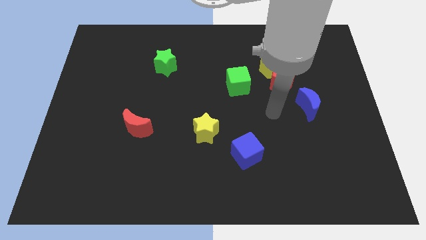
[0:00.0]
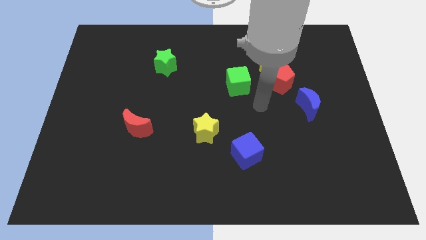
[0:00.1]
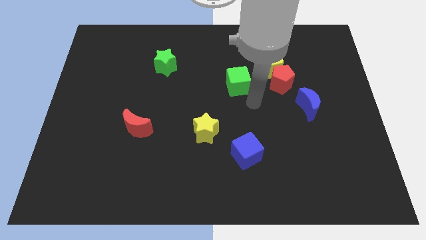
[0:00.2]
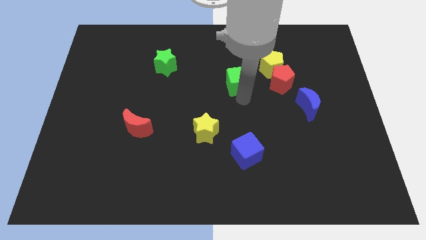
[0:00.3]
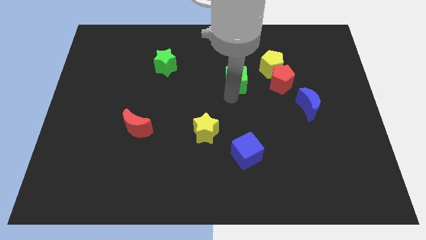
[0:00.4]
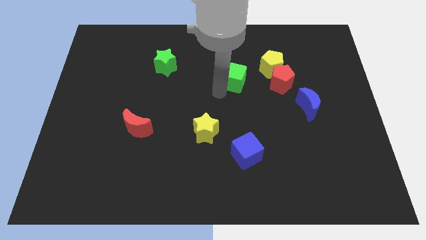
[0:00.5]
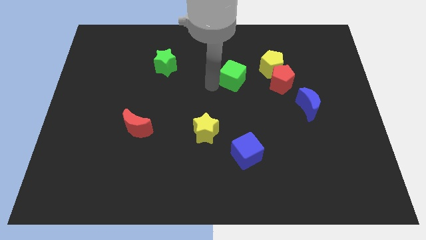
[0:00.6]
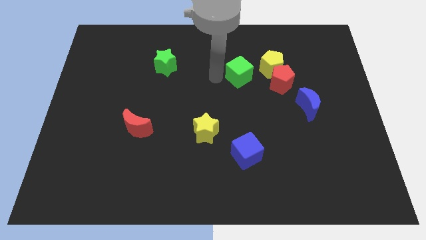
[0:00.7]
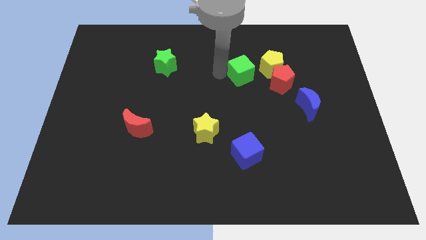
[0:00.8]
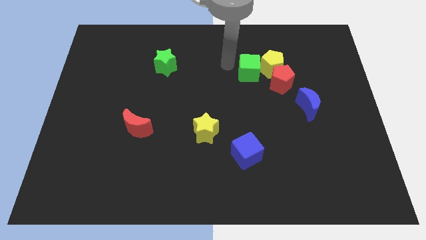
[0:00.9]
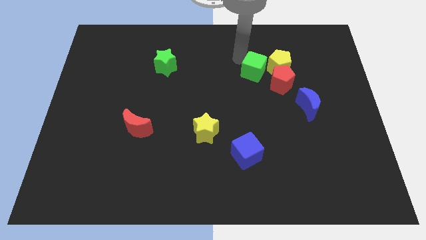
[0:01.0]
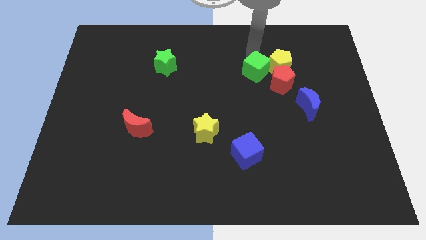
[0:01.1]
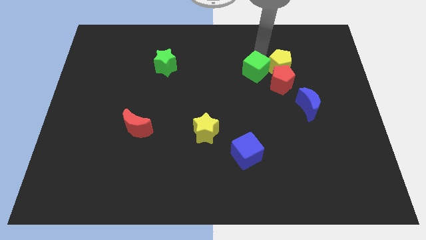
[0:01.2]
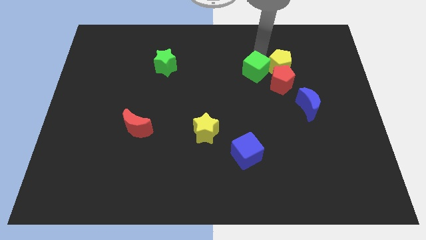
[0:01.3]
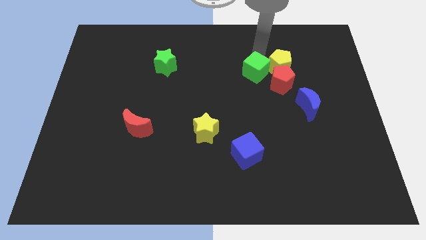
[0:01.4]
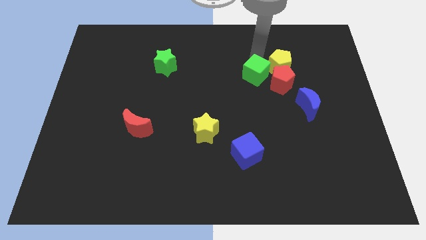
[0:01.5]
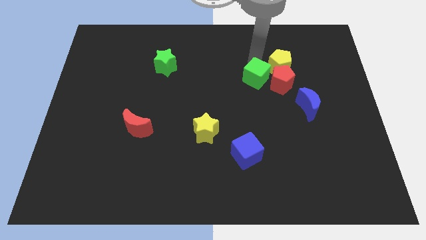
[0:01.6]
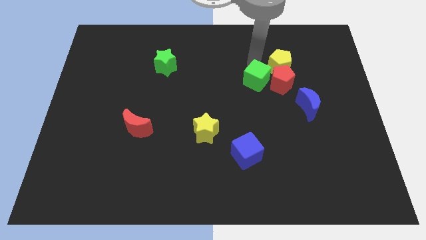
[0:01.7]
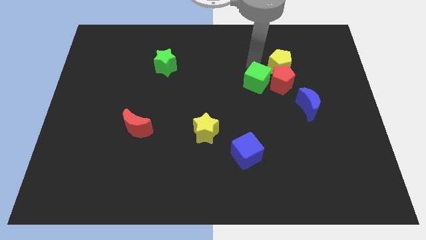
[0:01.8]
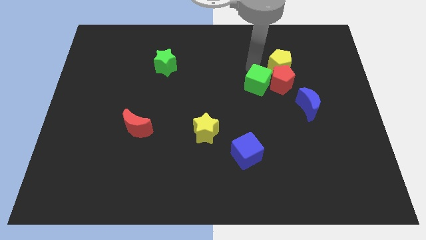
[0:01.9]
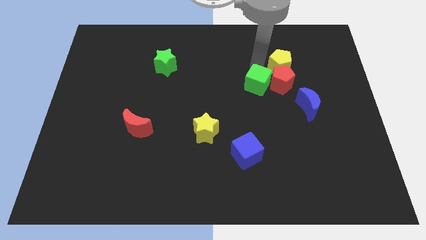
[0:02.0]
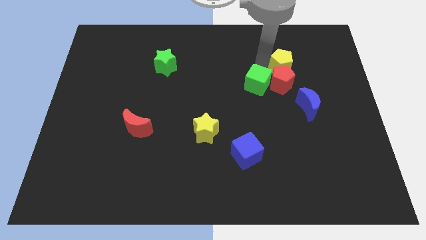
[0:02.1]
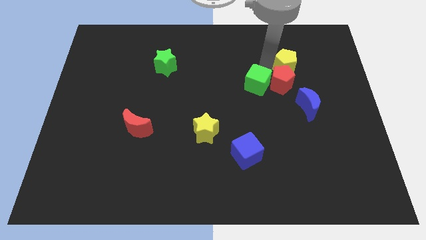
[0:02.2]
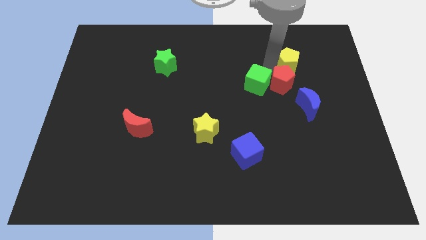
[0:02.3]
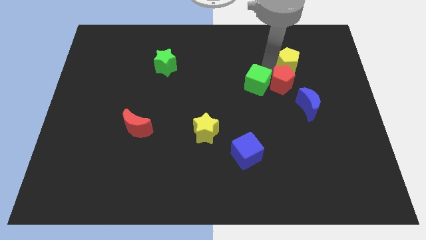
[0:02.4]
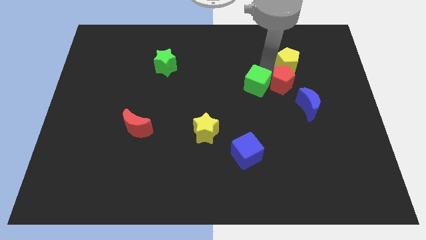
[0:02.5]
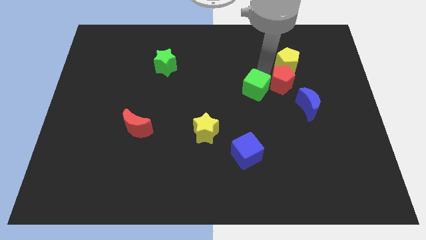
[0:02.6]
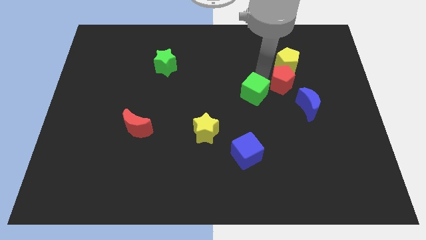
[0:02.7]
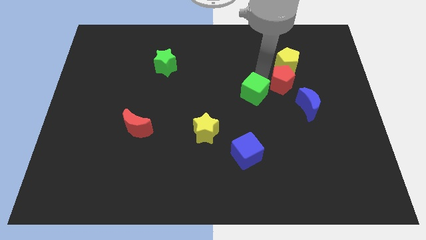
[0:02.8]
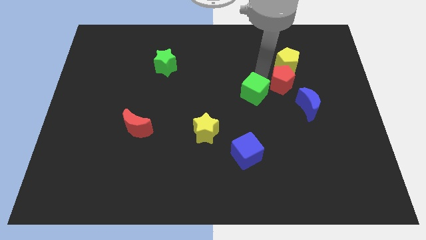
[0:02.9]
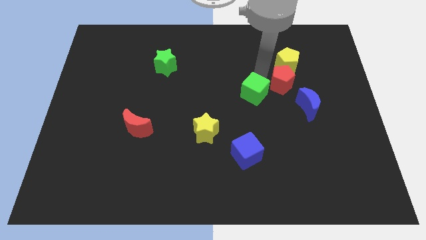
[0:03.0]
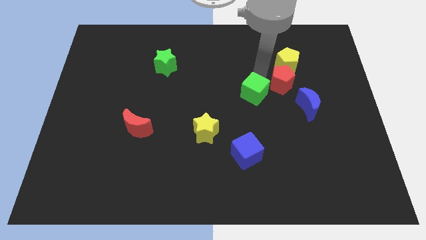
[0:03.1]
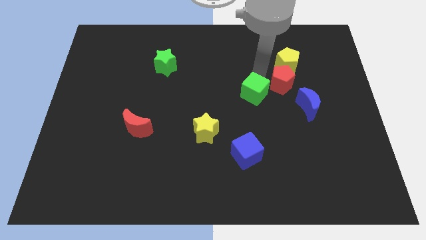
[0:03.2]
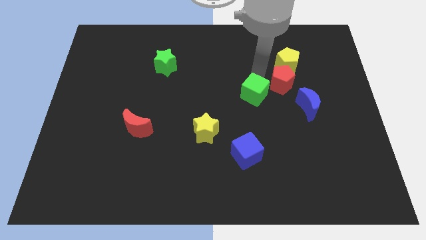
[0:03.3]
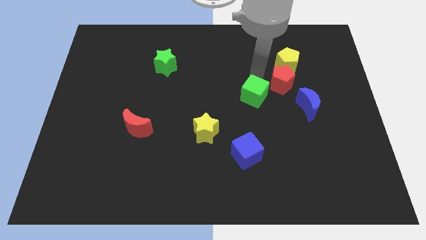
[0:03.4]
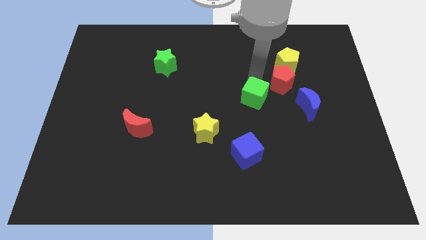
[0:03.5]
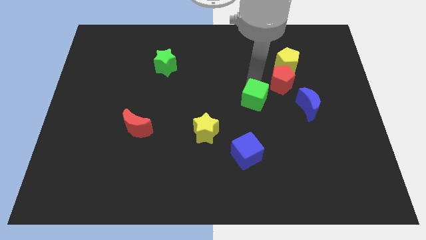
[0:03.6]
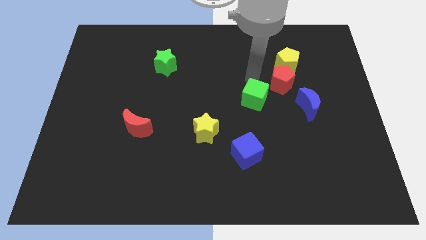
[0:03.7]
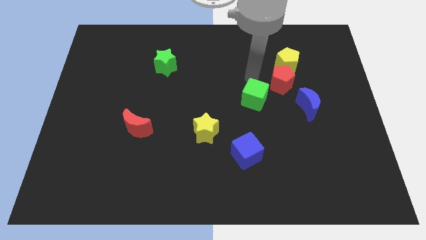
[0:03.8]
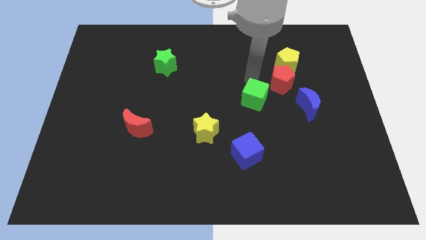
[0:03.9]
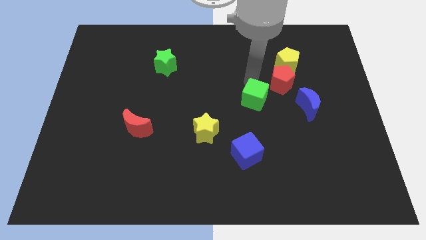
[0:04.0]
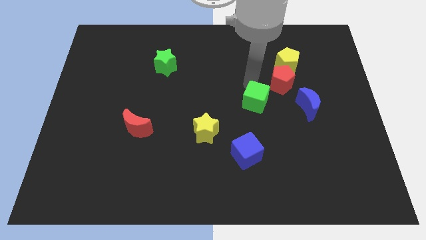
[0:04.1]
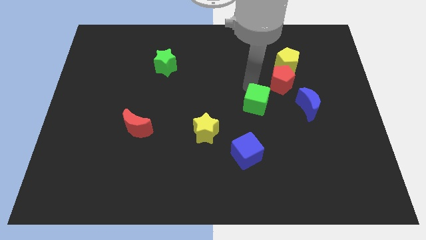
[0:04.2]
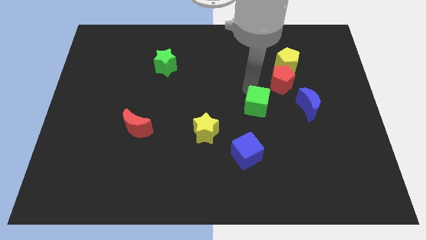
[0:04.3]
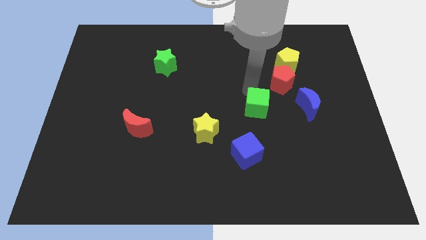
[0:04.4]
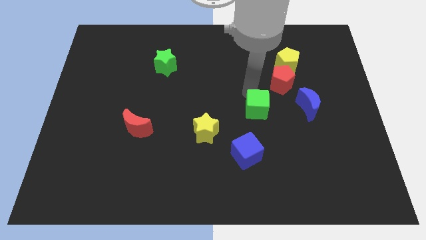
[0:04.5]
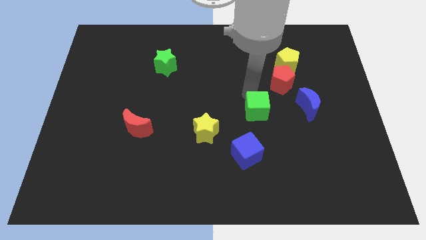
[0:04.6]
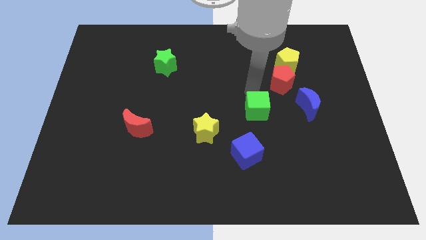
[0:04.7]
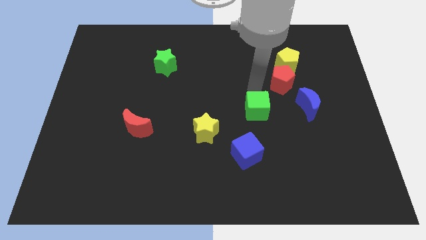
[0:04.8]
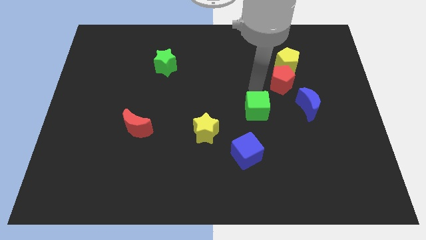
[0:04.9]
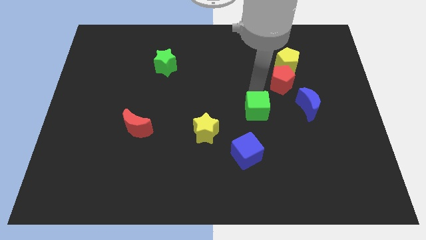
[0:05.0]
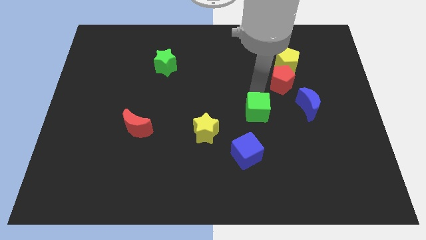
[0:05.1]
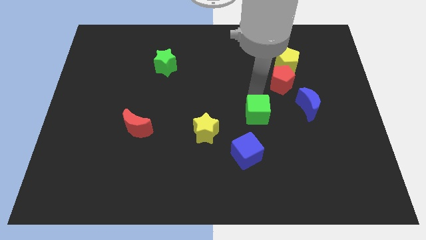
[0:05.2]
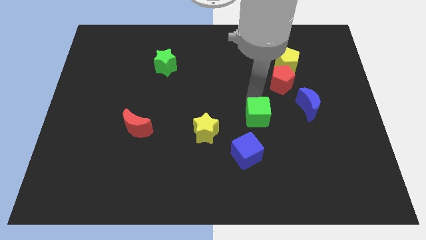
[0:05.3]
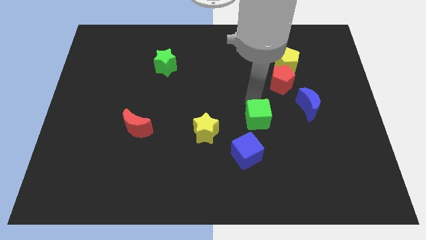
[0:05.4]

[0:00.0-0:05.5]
move the green cube diagonally up and to the right of the blue cube

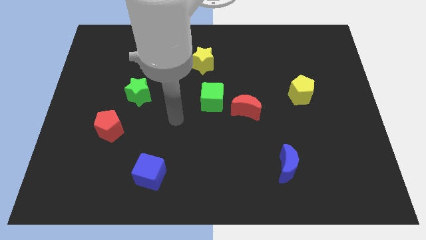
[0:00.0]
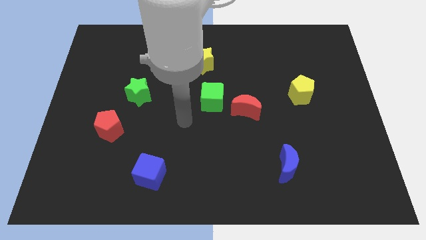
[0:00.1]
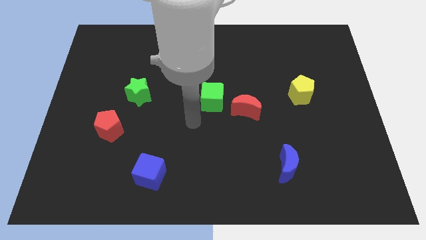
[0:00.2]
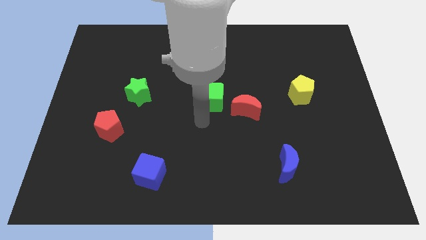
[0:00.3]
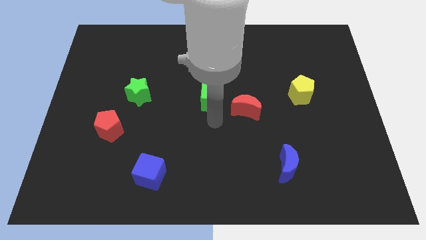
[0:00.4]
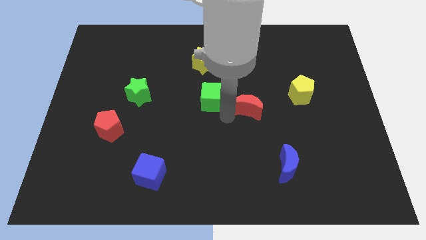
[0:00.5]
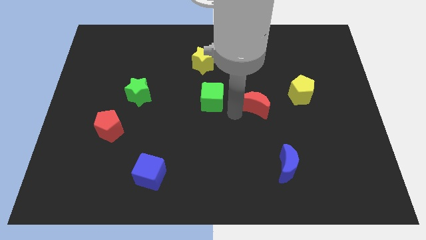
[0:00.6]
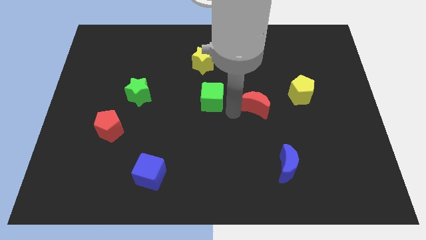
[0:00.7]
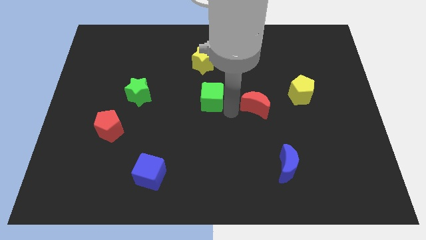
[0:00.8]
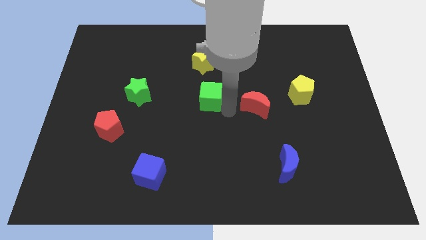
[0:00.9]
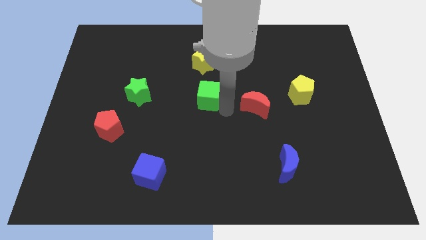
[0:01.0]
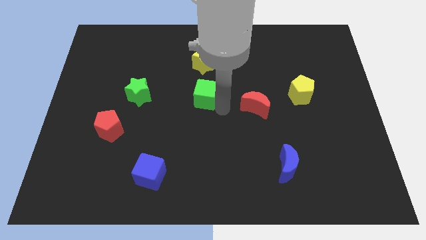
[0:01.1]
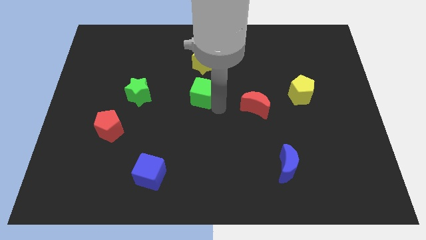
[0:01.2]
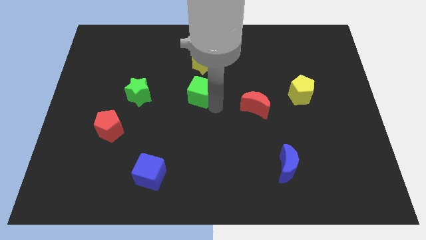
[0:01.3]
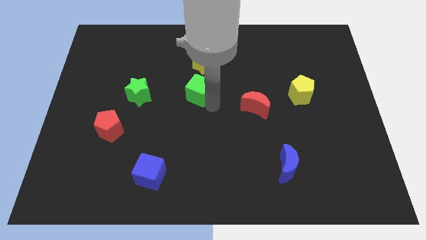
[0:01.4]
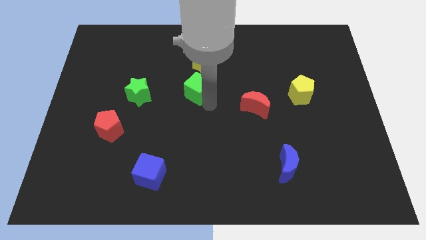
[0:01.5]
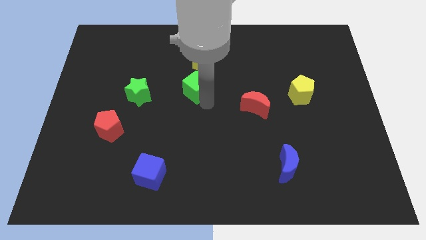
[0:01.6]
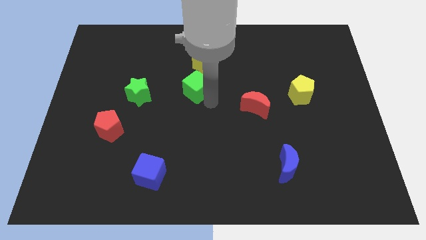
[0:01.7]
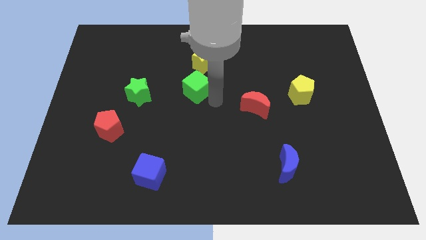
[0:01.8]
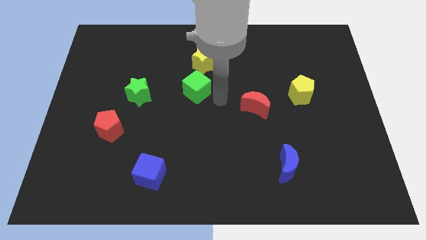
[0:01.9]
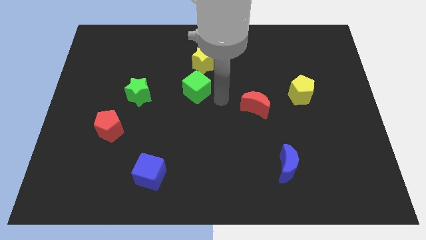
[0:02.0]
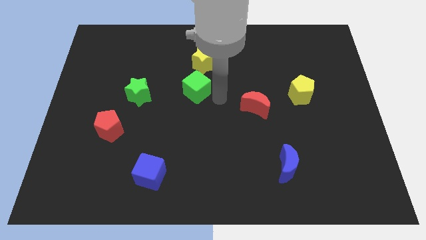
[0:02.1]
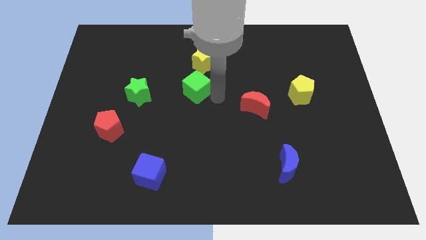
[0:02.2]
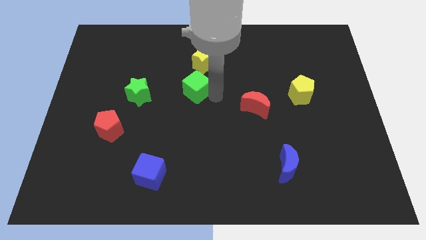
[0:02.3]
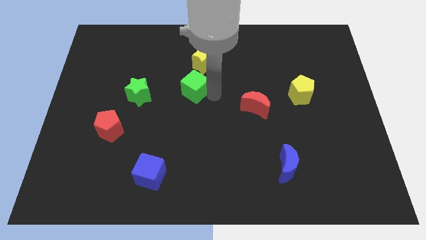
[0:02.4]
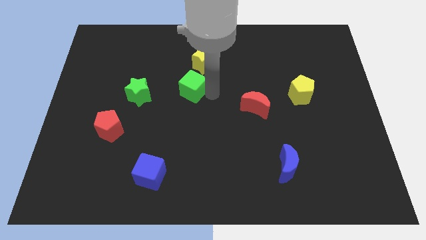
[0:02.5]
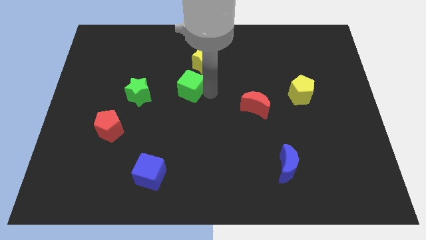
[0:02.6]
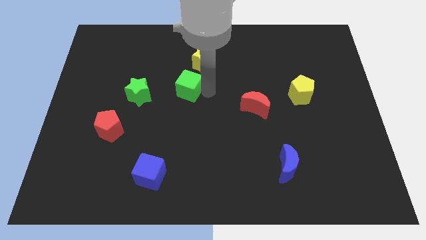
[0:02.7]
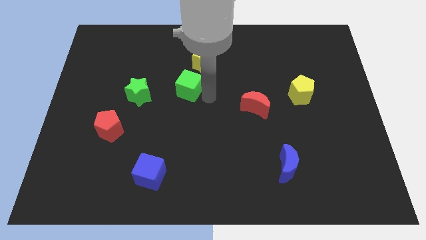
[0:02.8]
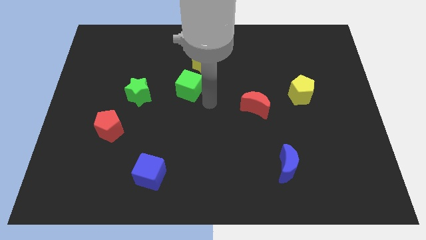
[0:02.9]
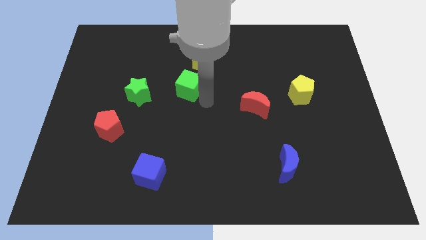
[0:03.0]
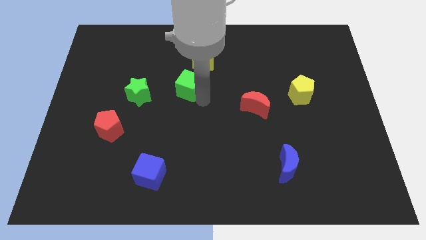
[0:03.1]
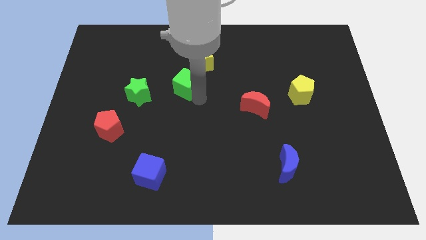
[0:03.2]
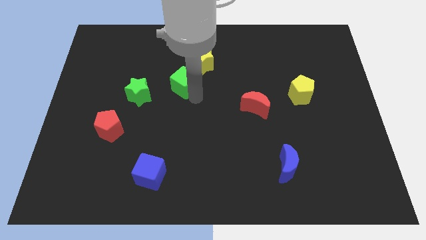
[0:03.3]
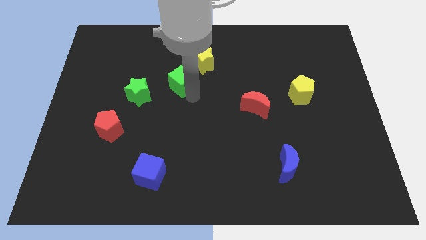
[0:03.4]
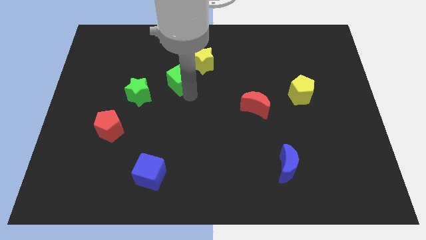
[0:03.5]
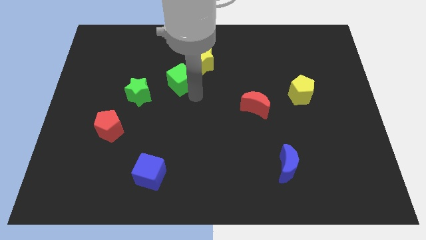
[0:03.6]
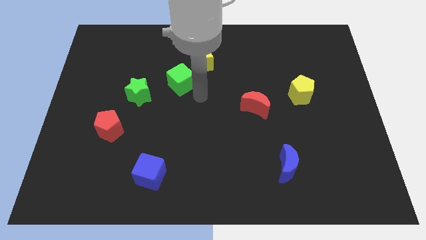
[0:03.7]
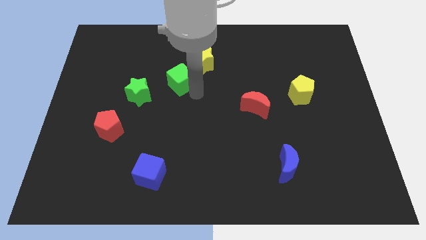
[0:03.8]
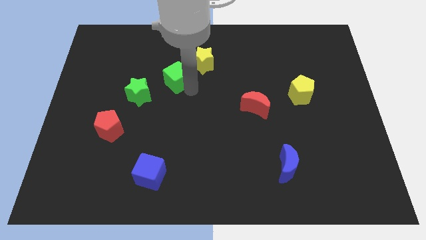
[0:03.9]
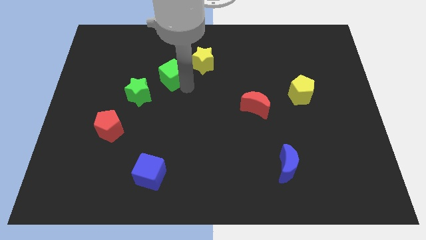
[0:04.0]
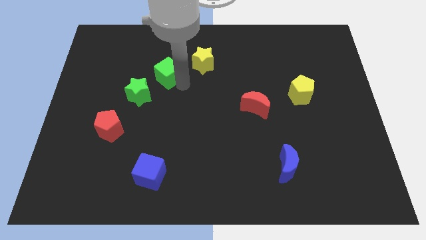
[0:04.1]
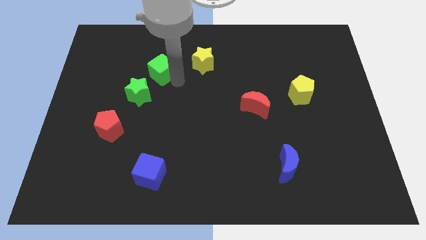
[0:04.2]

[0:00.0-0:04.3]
move the green cube to the top side of the green star
